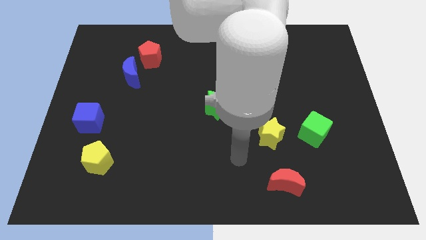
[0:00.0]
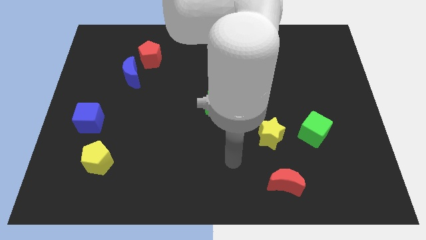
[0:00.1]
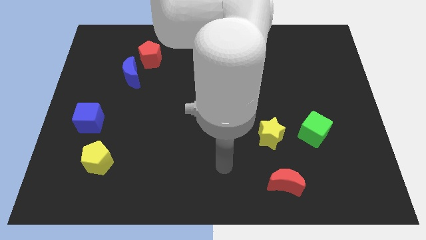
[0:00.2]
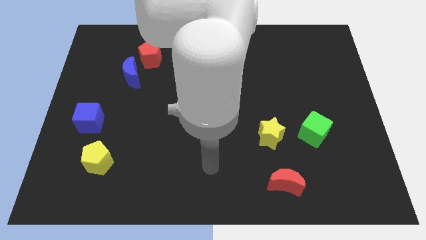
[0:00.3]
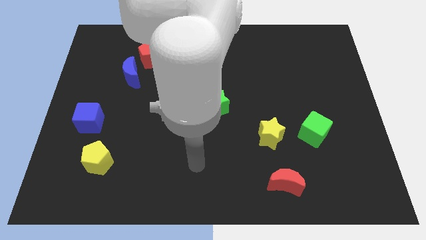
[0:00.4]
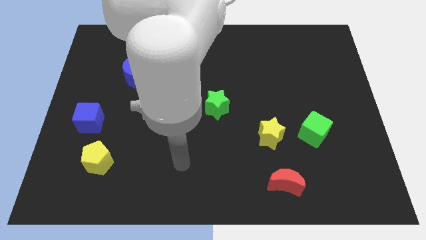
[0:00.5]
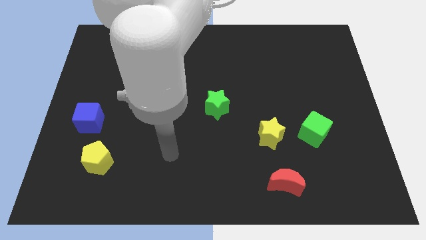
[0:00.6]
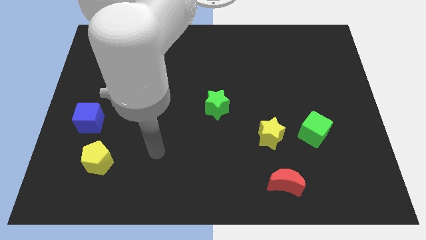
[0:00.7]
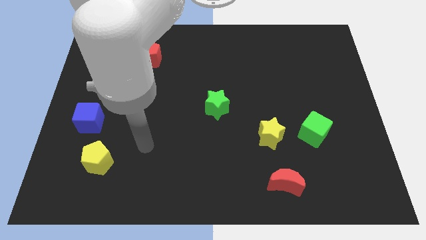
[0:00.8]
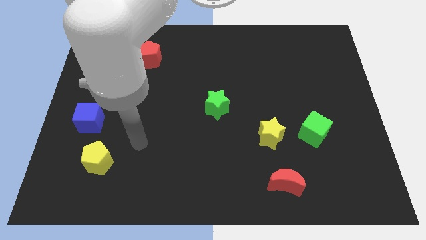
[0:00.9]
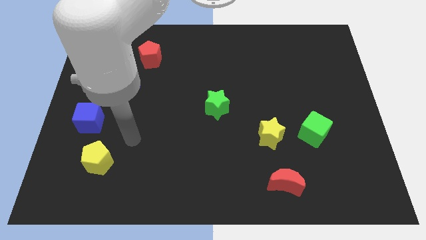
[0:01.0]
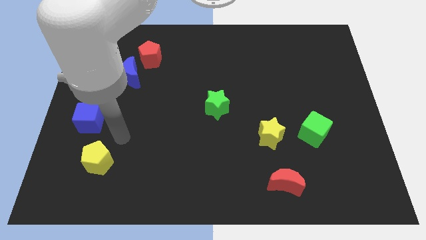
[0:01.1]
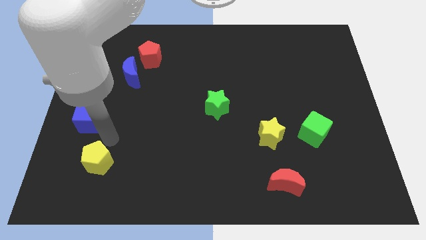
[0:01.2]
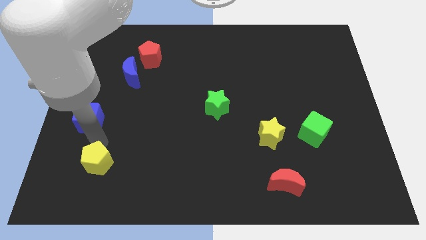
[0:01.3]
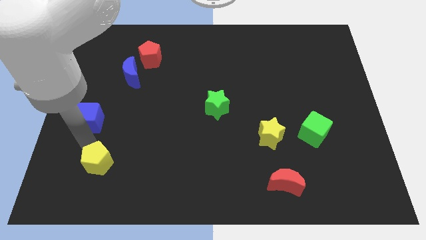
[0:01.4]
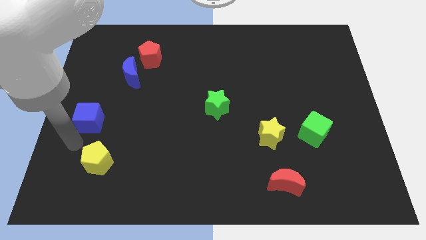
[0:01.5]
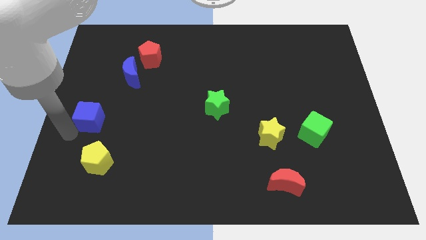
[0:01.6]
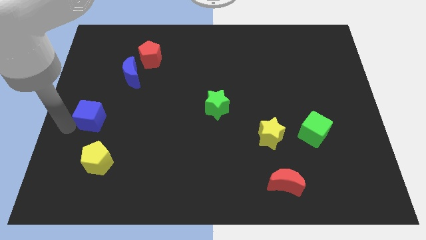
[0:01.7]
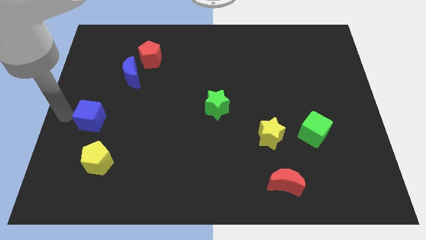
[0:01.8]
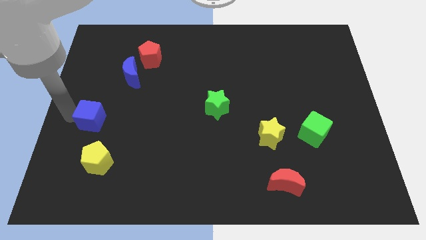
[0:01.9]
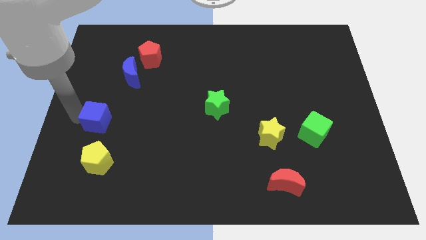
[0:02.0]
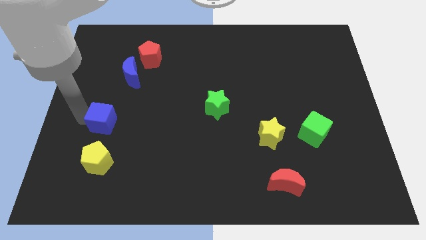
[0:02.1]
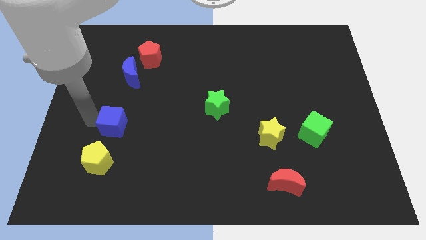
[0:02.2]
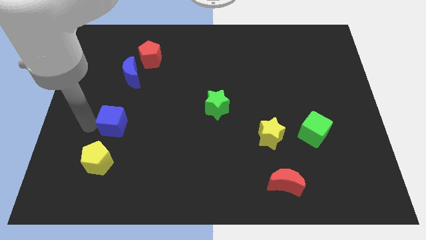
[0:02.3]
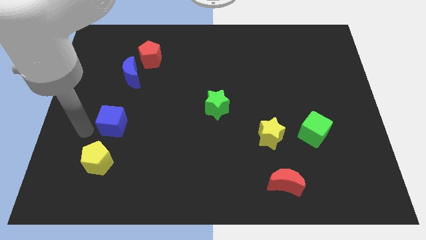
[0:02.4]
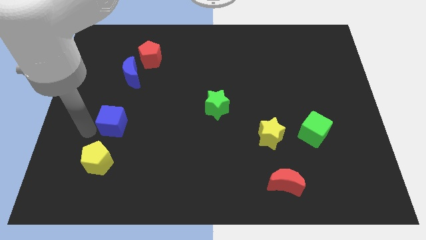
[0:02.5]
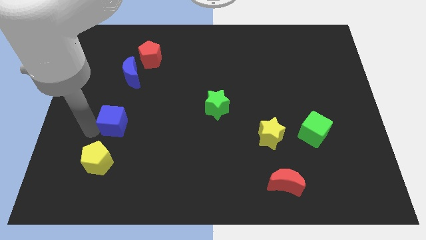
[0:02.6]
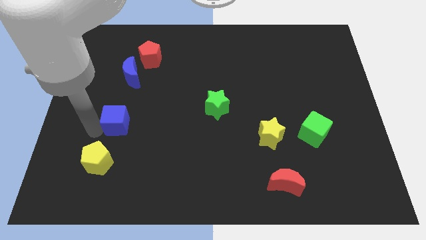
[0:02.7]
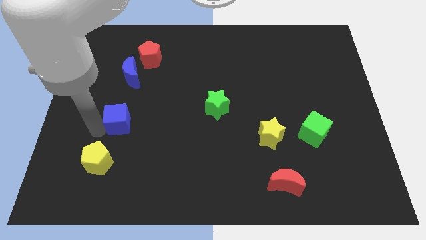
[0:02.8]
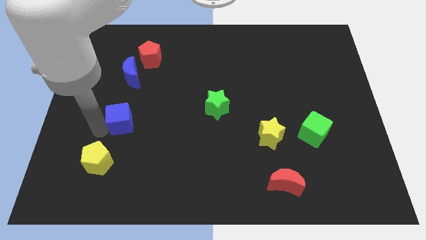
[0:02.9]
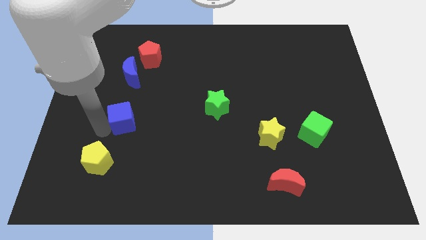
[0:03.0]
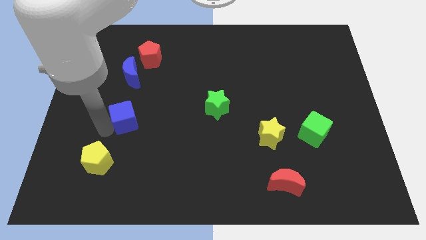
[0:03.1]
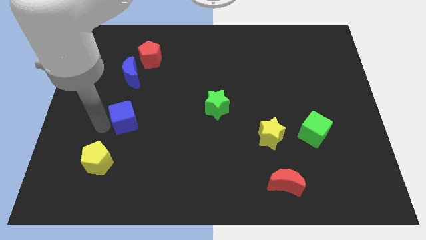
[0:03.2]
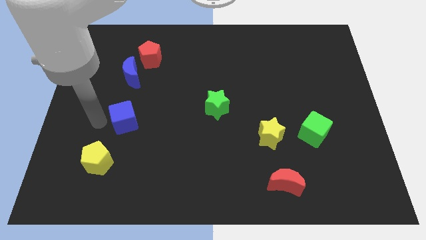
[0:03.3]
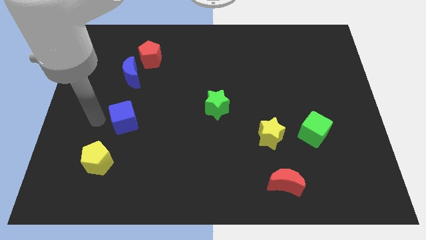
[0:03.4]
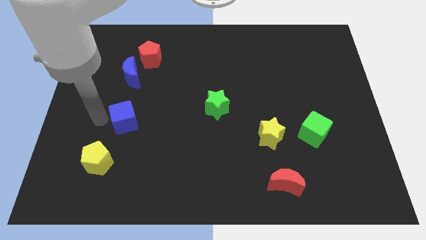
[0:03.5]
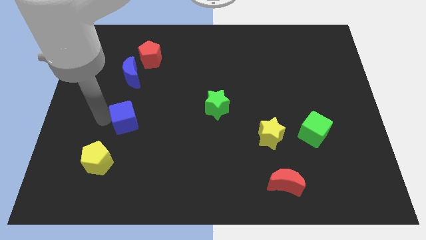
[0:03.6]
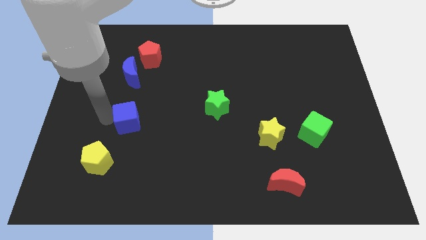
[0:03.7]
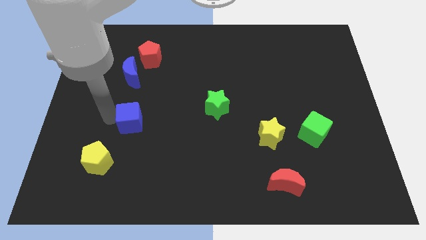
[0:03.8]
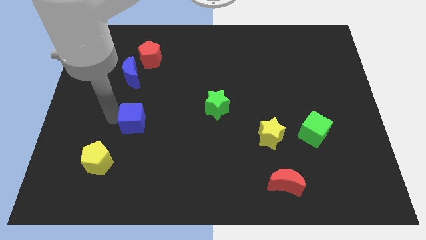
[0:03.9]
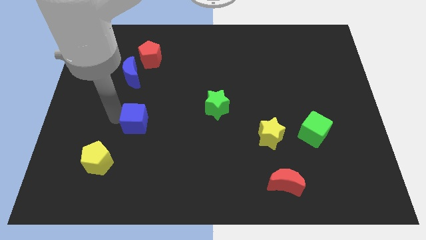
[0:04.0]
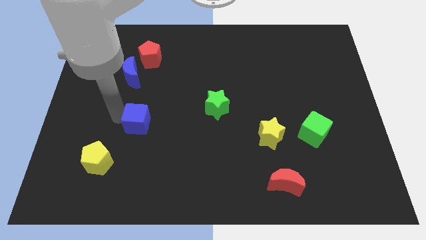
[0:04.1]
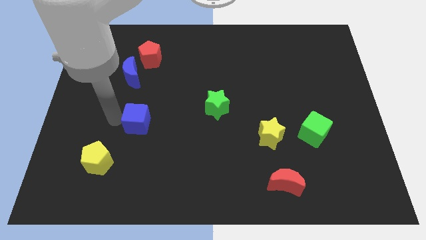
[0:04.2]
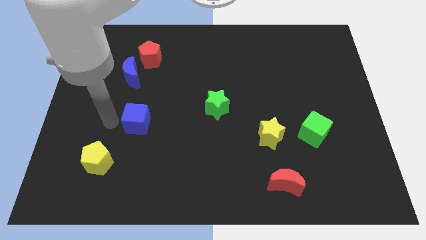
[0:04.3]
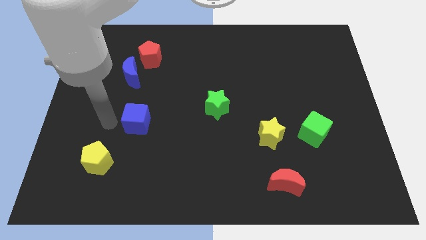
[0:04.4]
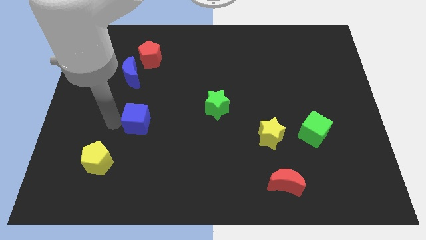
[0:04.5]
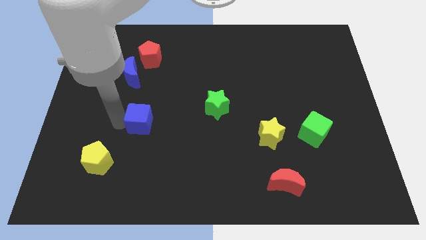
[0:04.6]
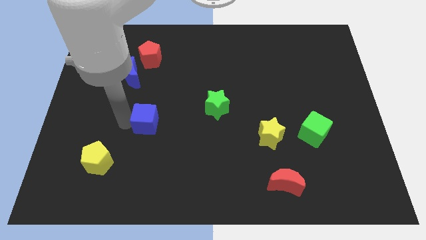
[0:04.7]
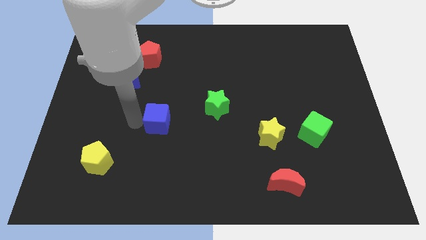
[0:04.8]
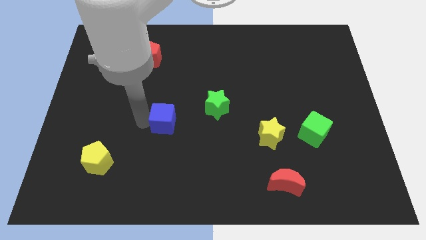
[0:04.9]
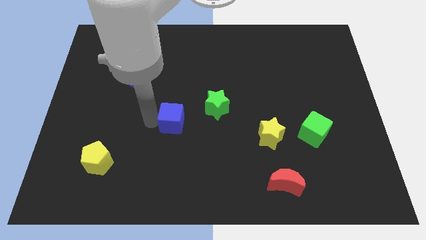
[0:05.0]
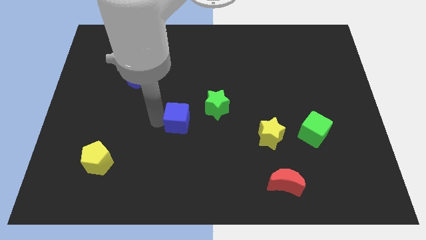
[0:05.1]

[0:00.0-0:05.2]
push the blue cube to the right

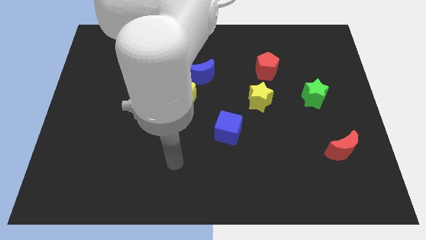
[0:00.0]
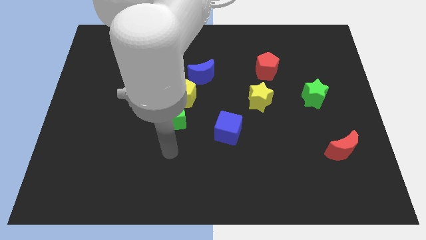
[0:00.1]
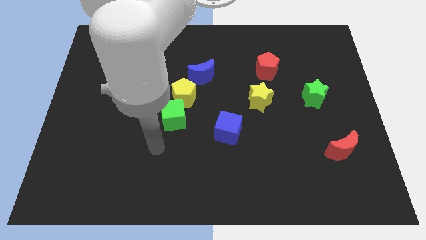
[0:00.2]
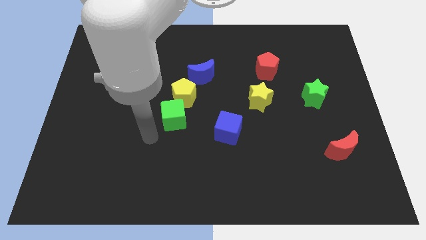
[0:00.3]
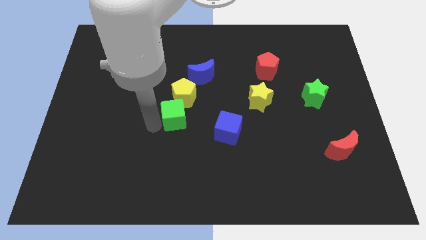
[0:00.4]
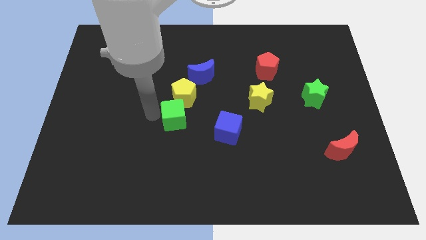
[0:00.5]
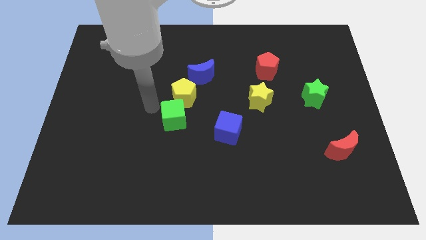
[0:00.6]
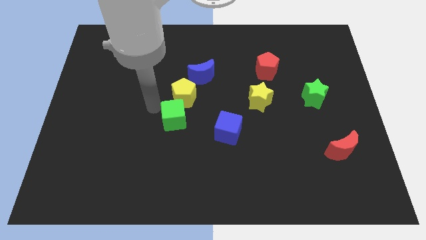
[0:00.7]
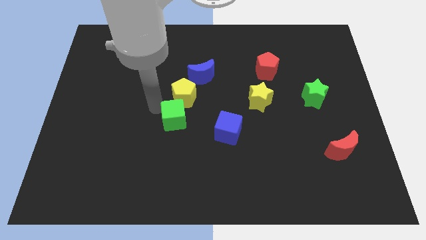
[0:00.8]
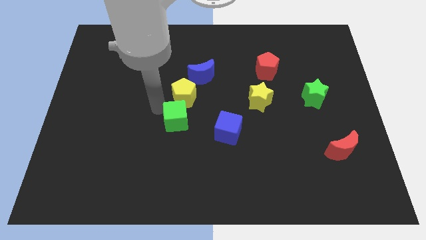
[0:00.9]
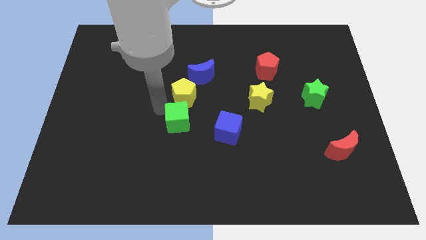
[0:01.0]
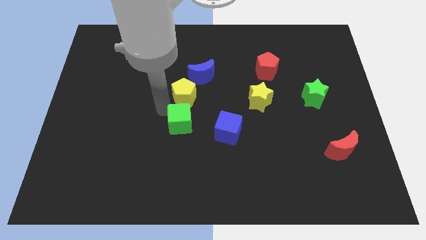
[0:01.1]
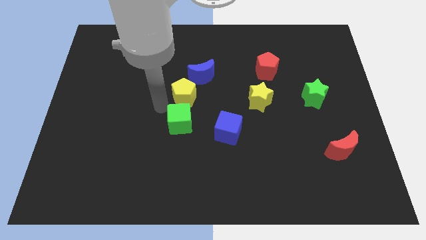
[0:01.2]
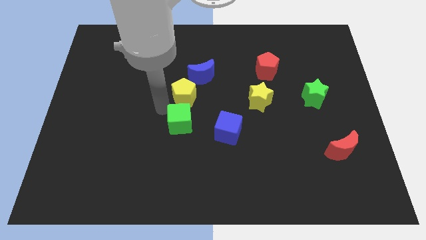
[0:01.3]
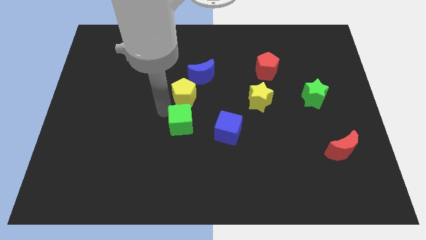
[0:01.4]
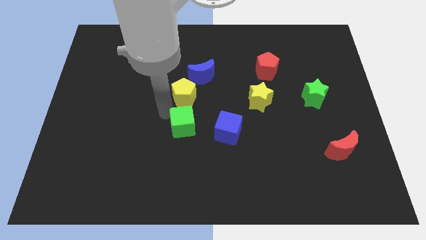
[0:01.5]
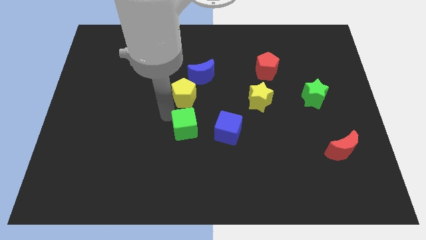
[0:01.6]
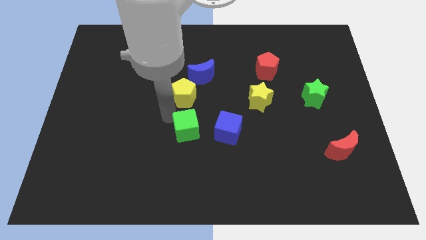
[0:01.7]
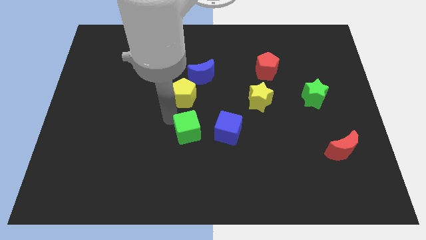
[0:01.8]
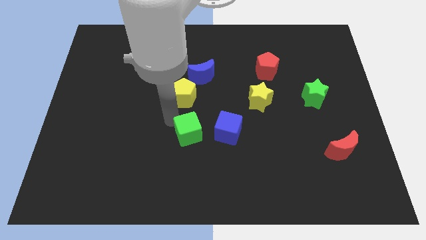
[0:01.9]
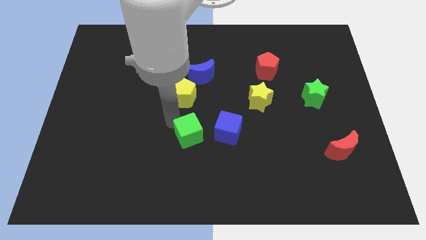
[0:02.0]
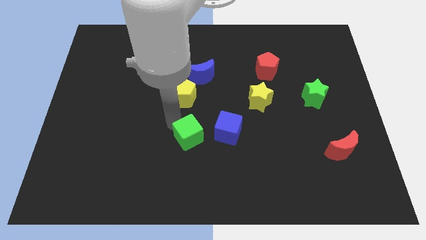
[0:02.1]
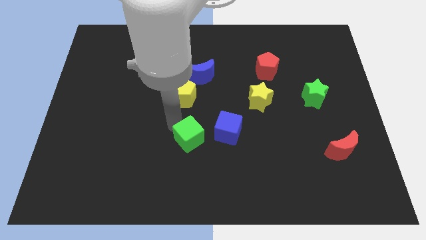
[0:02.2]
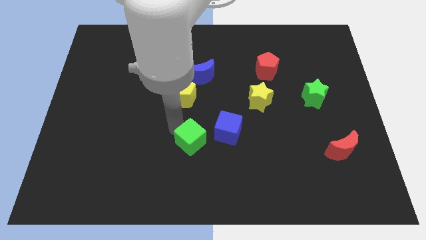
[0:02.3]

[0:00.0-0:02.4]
push the green cube a bit downwards and then right

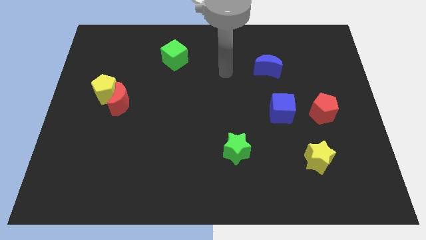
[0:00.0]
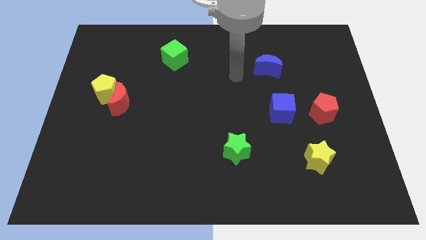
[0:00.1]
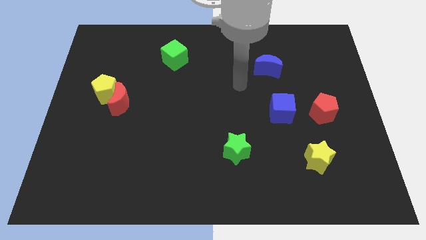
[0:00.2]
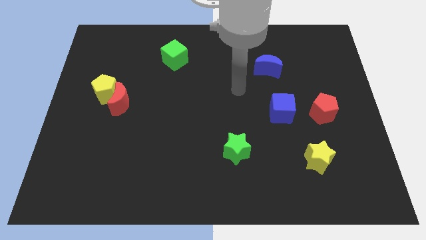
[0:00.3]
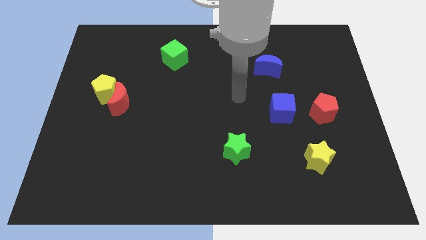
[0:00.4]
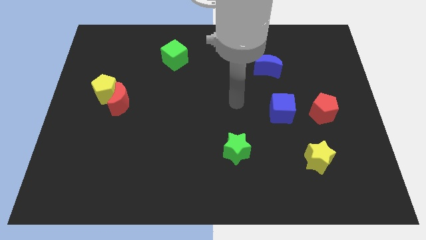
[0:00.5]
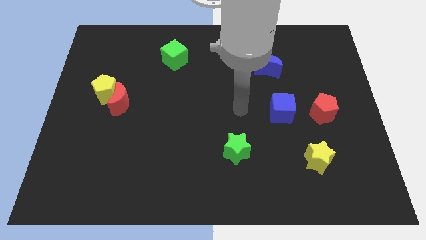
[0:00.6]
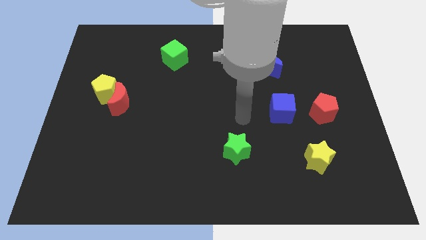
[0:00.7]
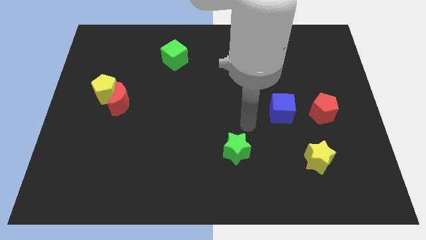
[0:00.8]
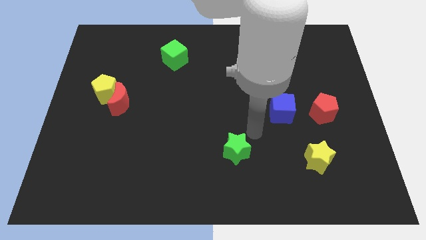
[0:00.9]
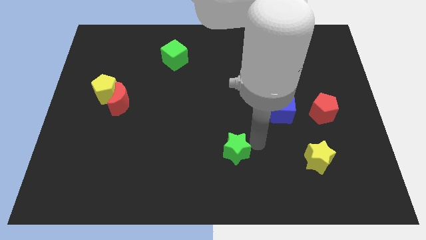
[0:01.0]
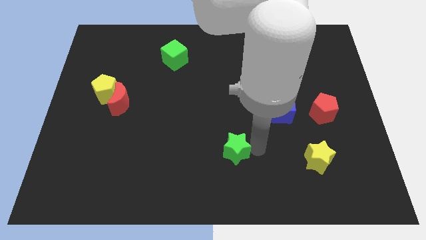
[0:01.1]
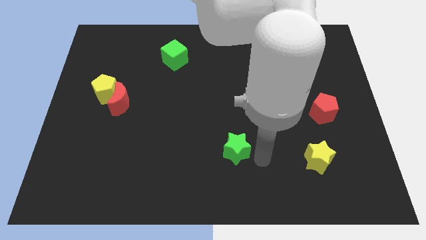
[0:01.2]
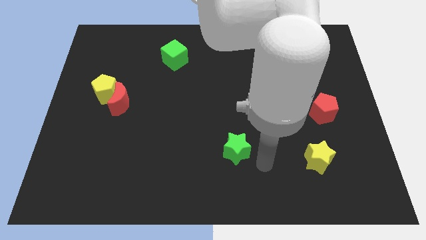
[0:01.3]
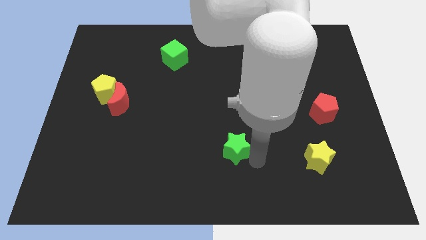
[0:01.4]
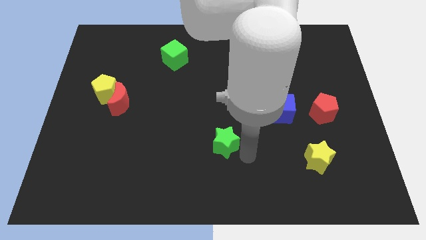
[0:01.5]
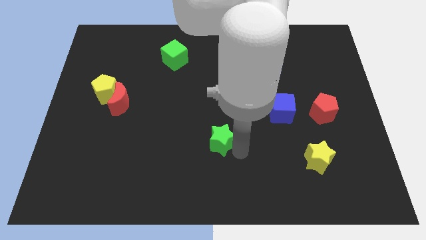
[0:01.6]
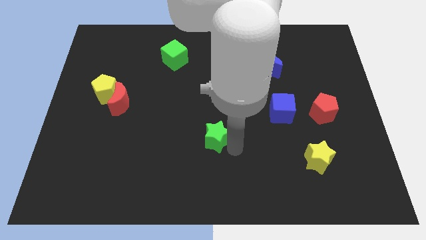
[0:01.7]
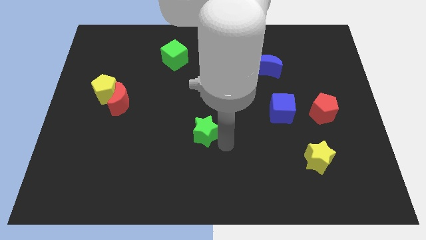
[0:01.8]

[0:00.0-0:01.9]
slightly slide the green star up and then left
